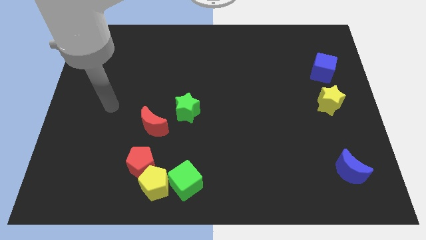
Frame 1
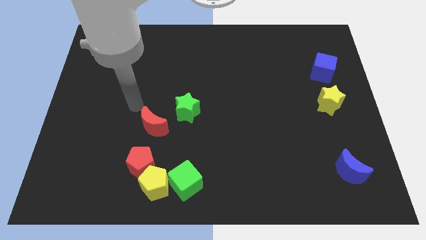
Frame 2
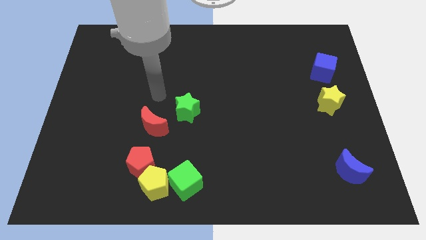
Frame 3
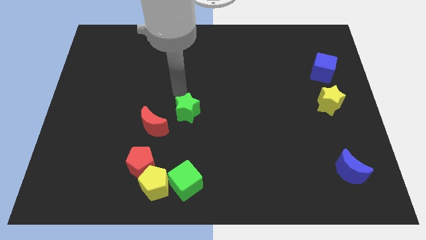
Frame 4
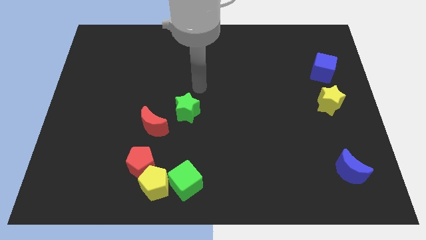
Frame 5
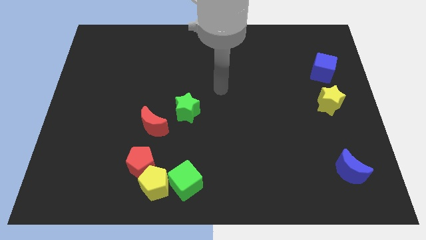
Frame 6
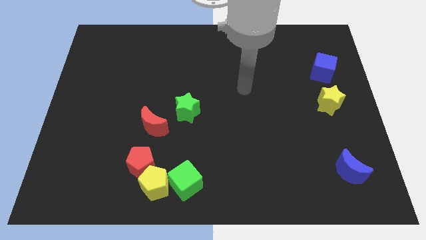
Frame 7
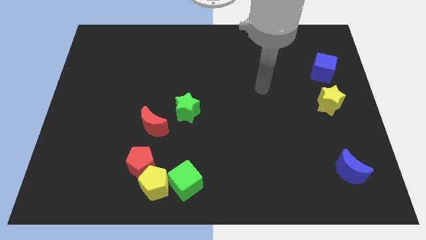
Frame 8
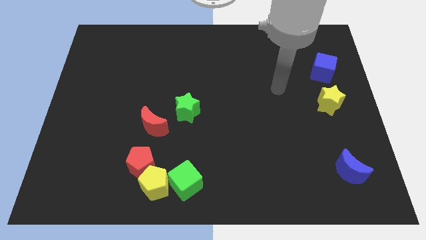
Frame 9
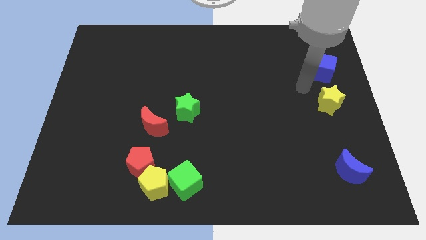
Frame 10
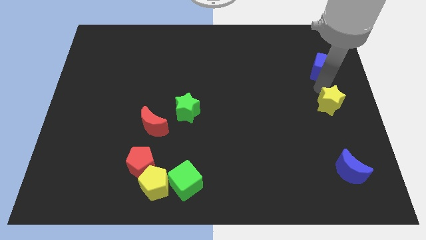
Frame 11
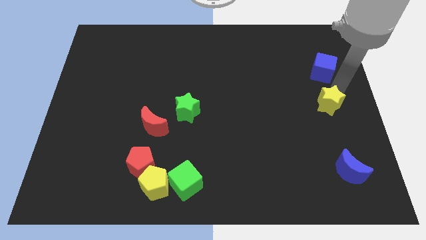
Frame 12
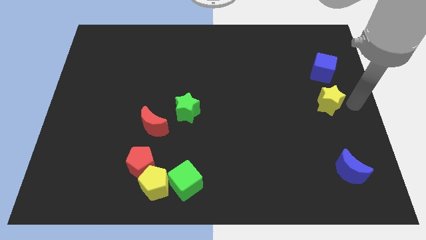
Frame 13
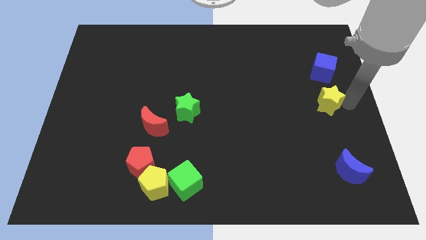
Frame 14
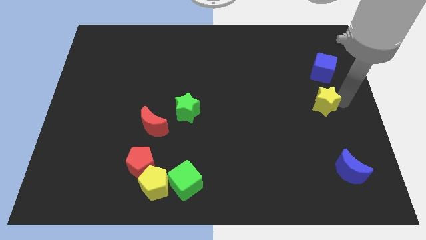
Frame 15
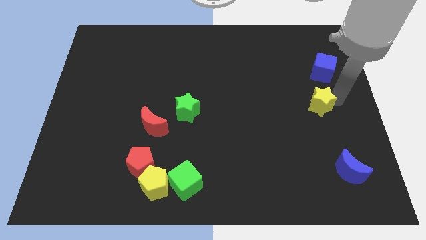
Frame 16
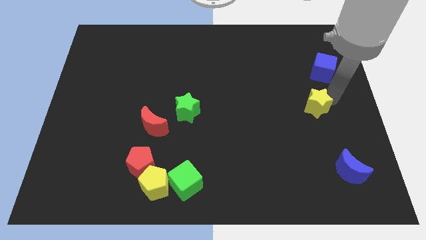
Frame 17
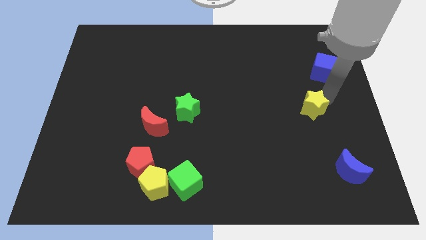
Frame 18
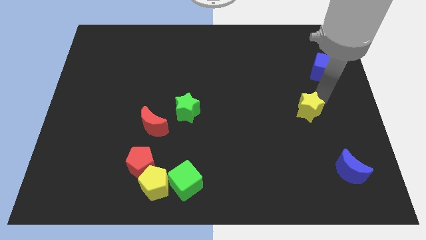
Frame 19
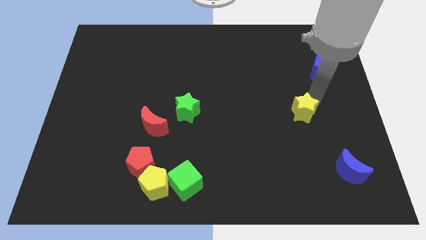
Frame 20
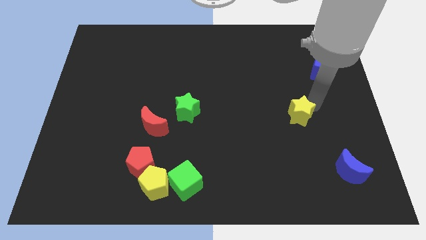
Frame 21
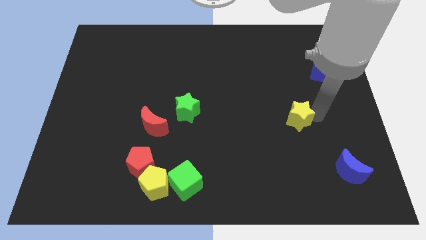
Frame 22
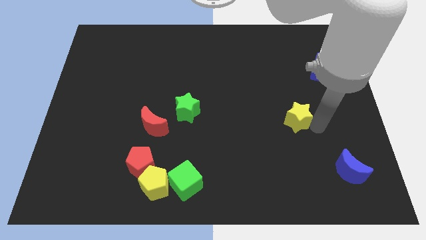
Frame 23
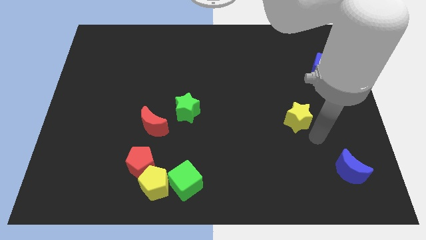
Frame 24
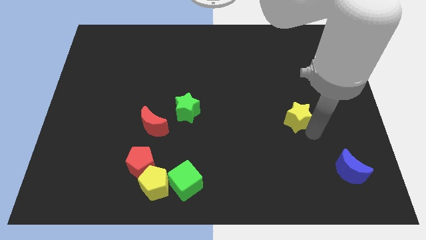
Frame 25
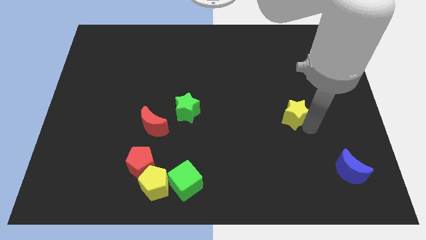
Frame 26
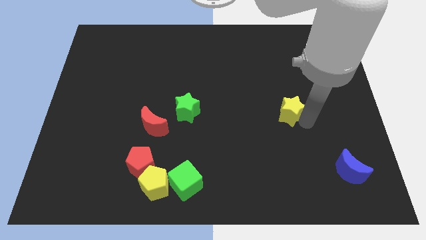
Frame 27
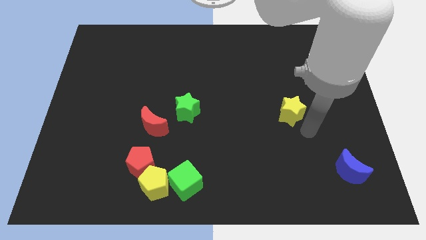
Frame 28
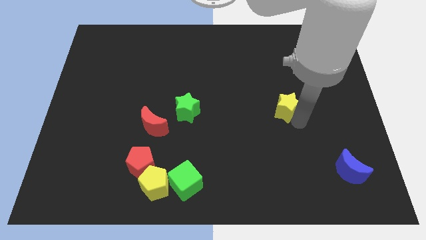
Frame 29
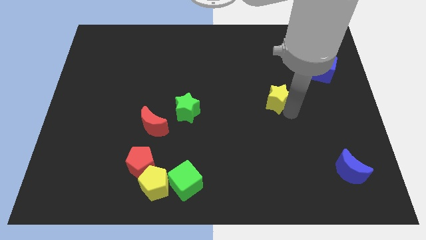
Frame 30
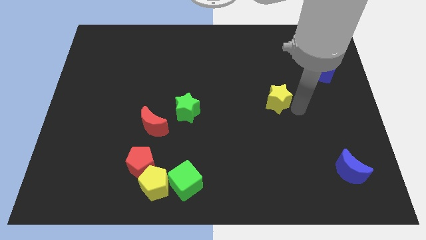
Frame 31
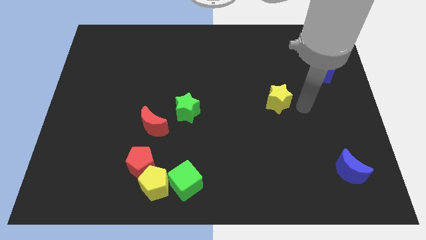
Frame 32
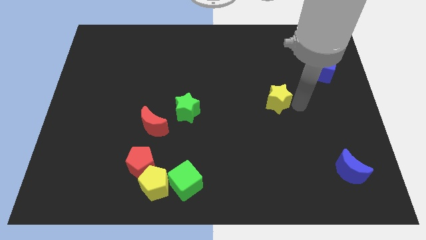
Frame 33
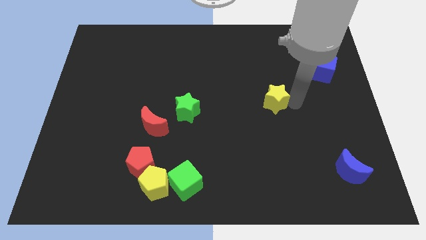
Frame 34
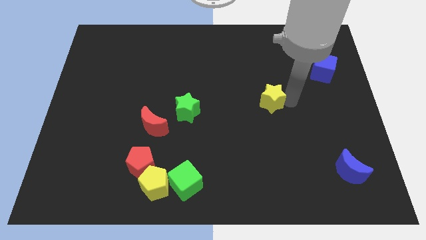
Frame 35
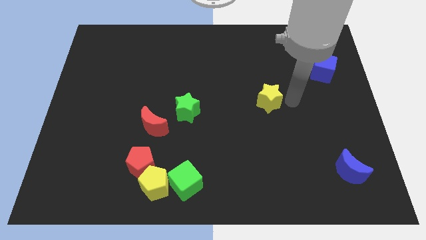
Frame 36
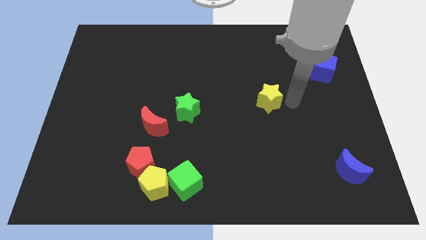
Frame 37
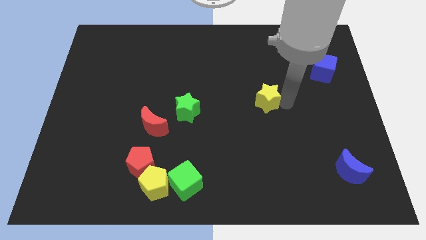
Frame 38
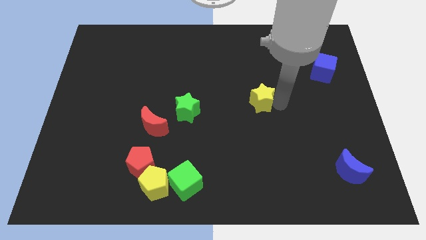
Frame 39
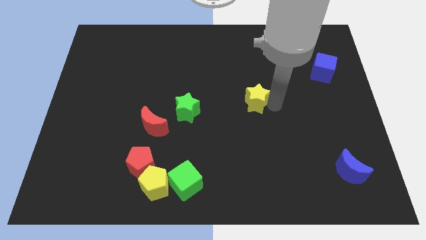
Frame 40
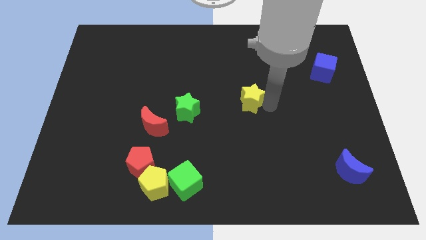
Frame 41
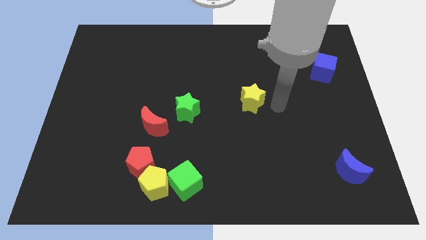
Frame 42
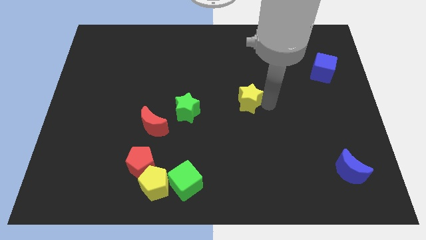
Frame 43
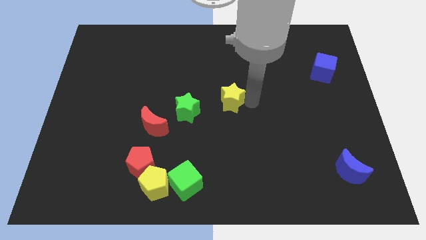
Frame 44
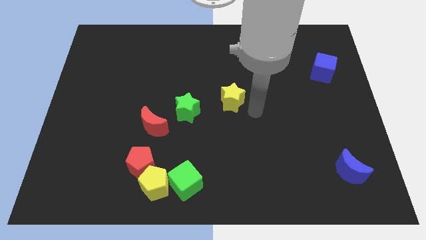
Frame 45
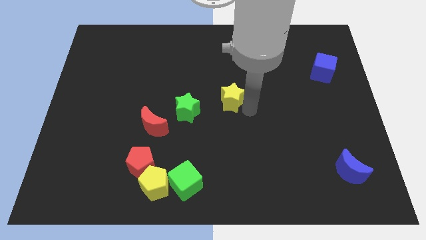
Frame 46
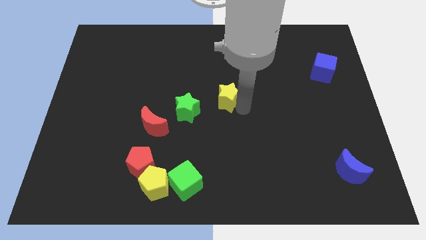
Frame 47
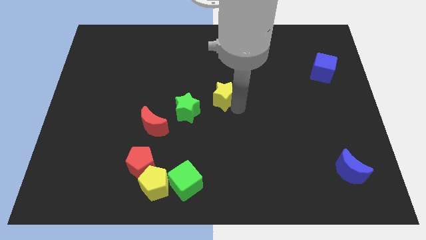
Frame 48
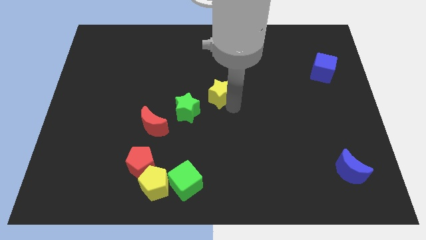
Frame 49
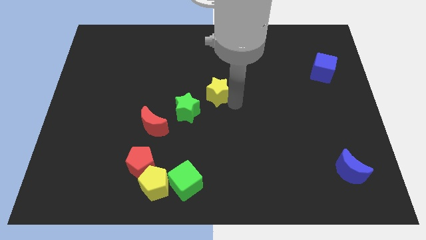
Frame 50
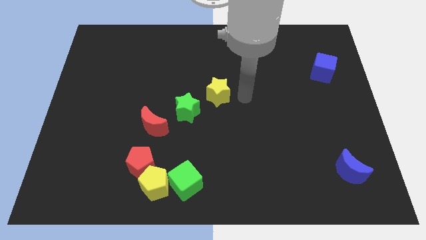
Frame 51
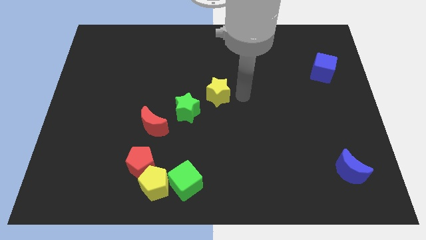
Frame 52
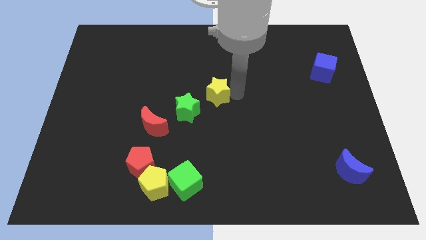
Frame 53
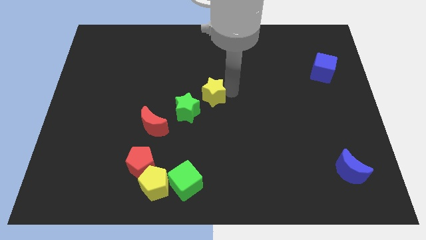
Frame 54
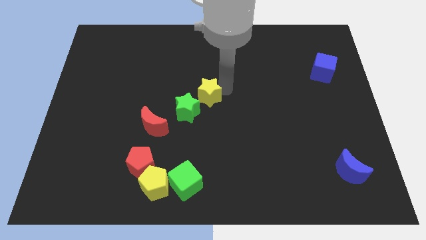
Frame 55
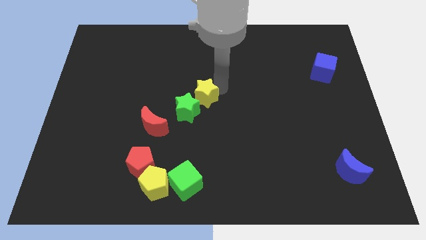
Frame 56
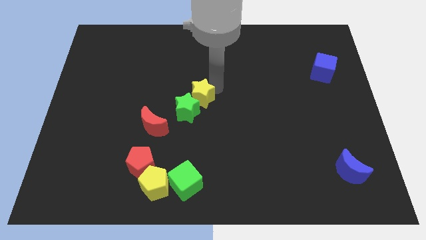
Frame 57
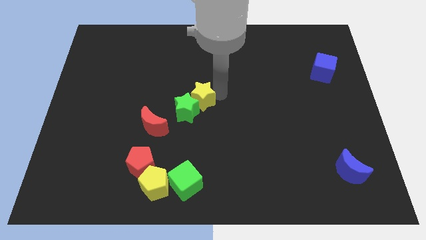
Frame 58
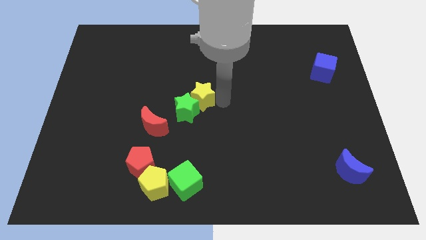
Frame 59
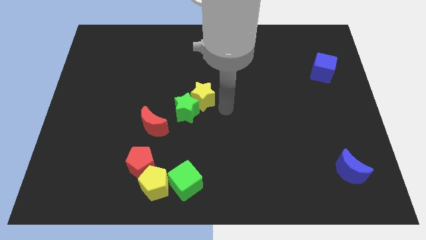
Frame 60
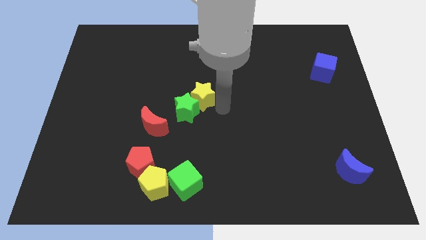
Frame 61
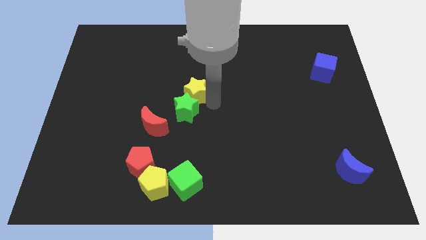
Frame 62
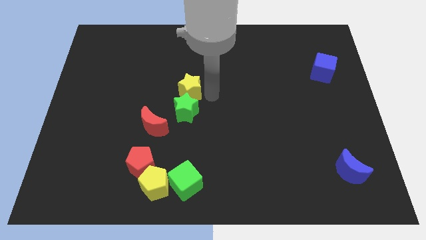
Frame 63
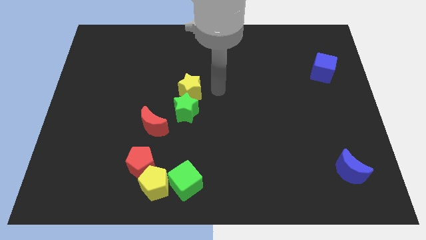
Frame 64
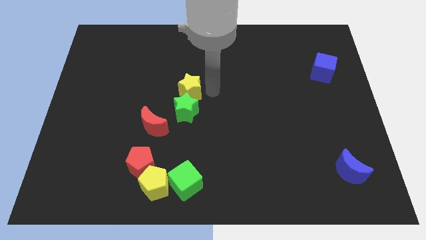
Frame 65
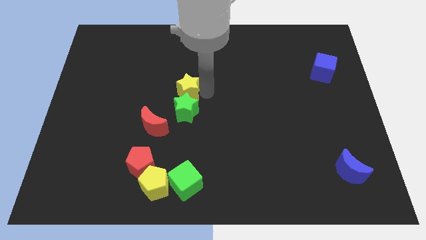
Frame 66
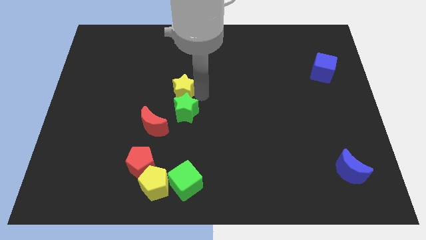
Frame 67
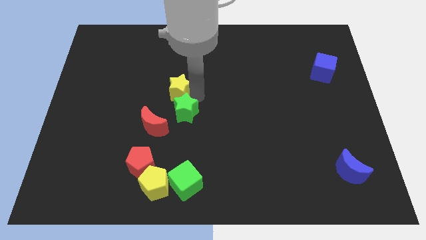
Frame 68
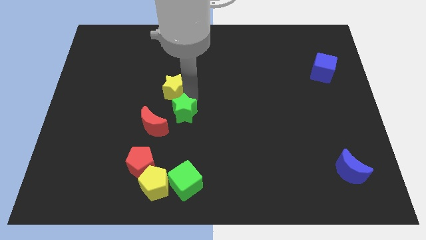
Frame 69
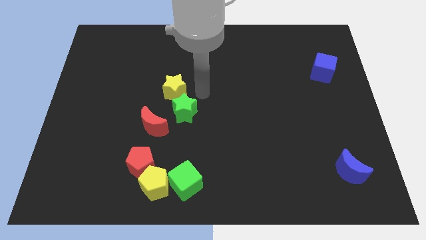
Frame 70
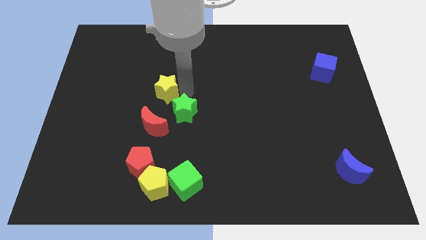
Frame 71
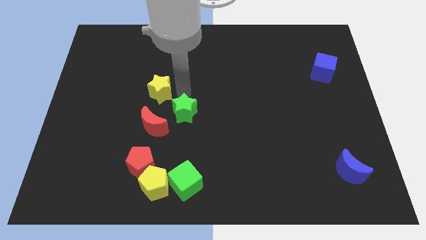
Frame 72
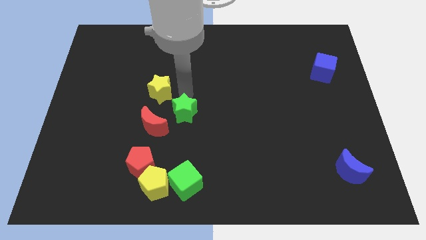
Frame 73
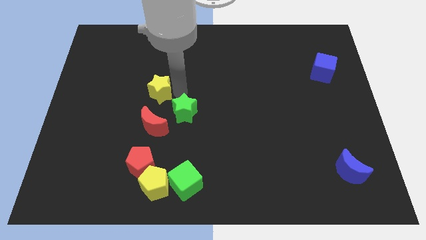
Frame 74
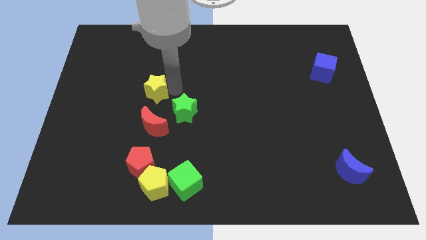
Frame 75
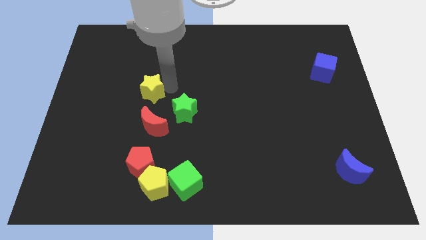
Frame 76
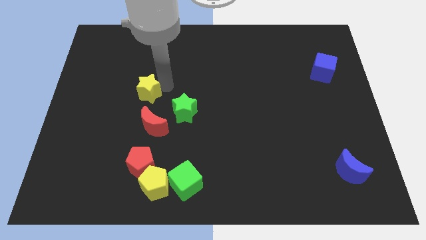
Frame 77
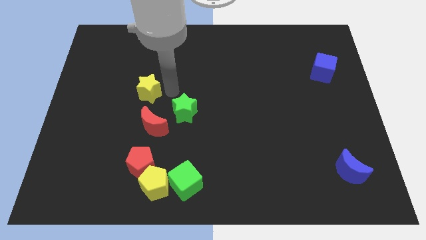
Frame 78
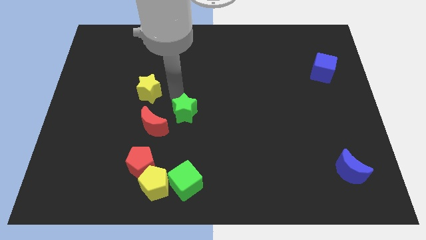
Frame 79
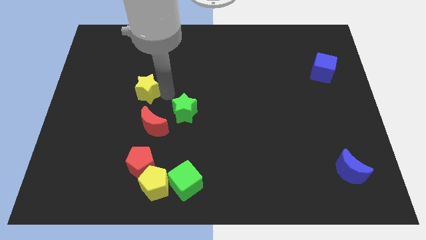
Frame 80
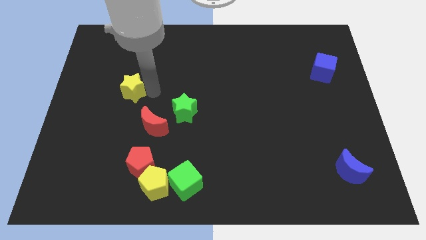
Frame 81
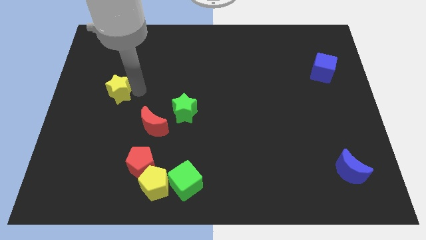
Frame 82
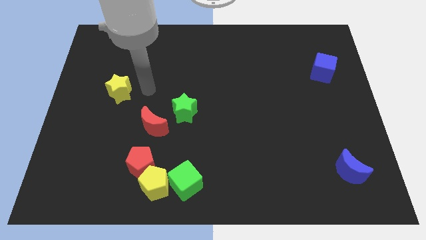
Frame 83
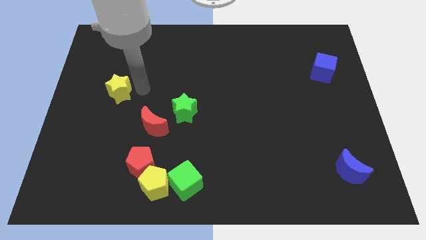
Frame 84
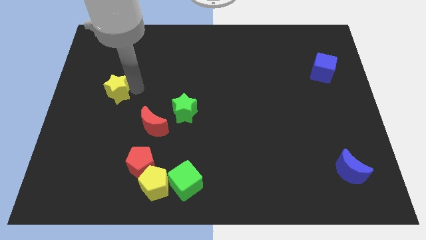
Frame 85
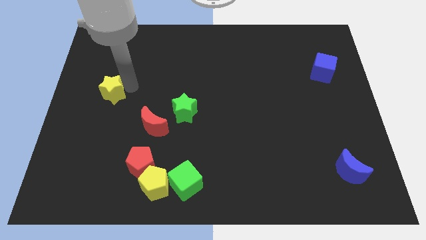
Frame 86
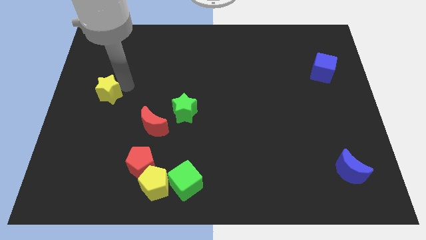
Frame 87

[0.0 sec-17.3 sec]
move the yellow star to the left side
